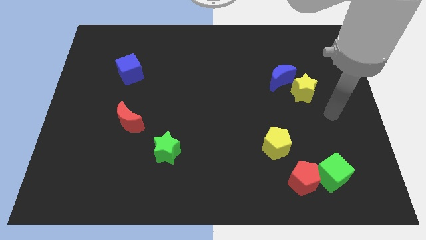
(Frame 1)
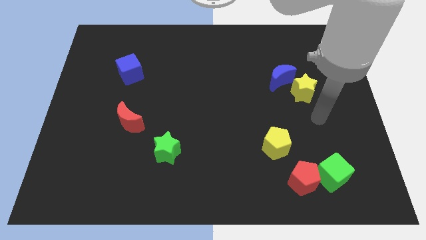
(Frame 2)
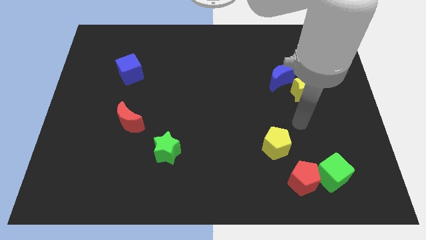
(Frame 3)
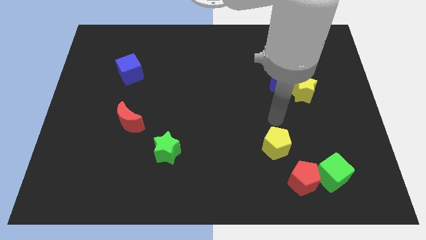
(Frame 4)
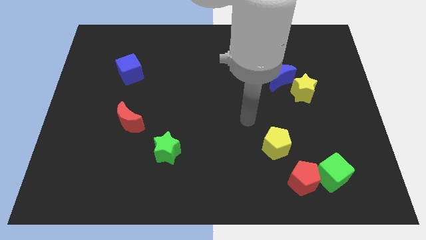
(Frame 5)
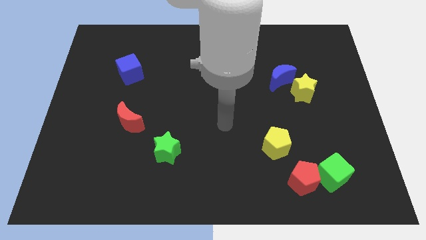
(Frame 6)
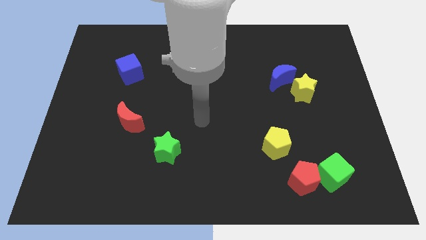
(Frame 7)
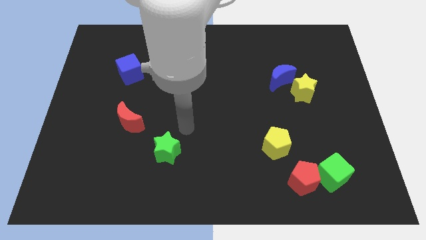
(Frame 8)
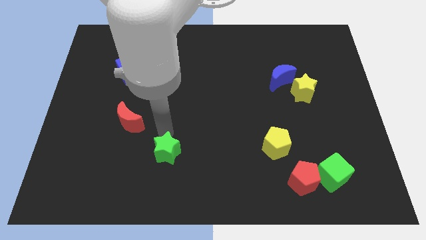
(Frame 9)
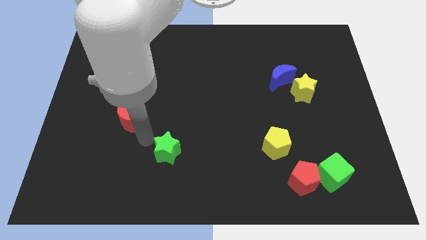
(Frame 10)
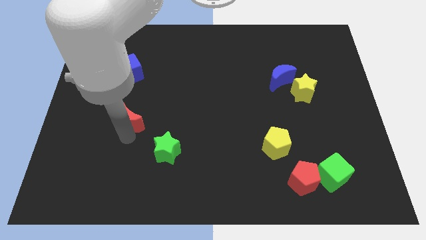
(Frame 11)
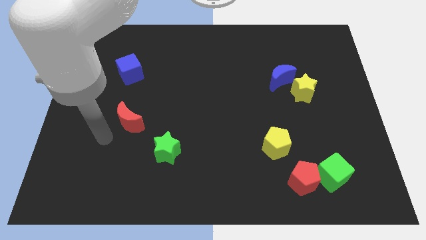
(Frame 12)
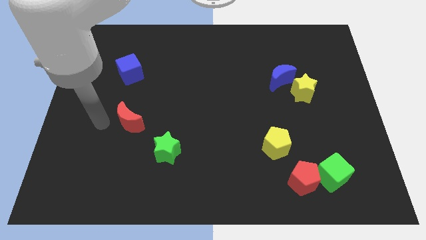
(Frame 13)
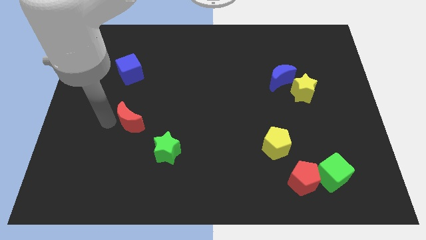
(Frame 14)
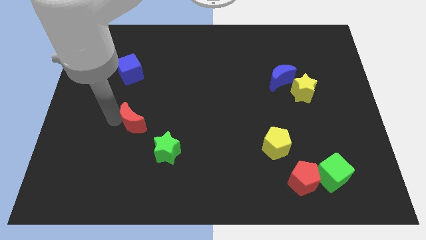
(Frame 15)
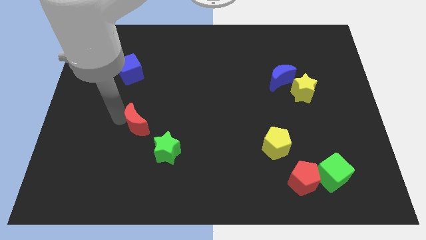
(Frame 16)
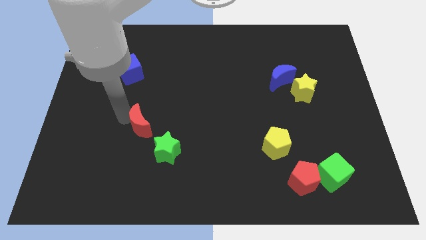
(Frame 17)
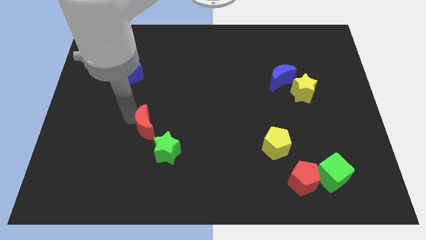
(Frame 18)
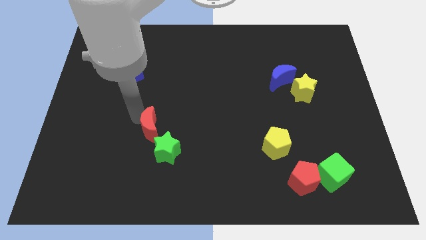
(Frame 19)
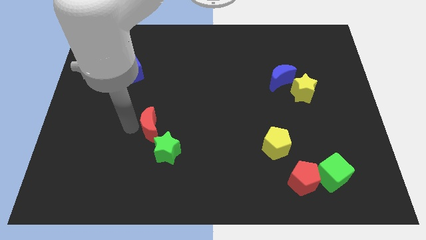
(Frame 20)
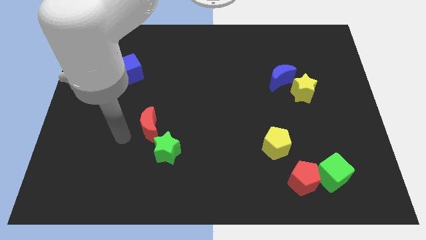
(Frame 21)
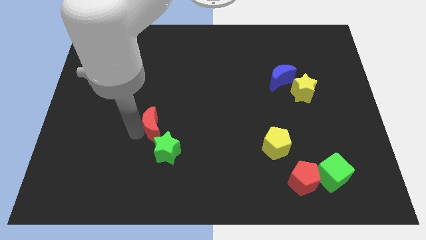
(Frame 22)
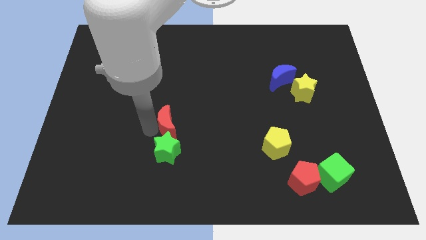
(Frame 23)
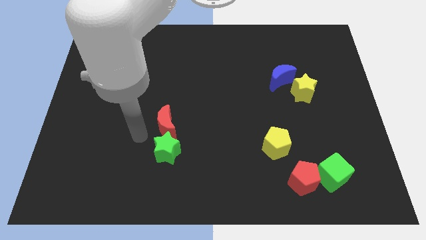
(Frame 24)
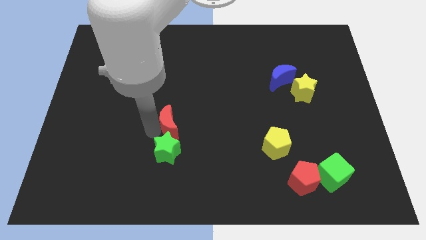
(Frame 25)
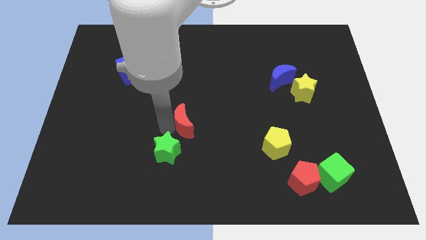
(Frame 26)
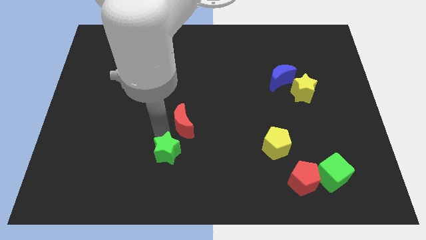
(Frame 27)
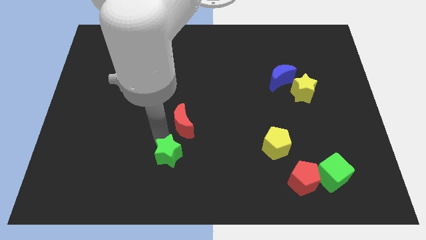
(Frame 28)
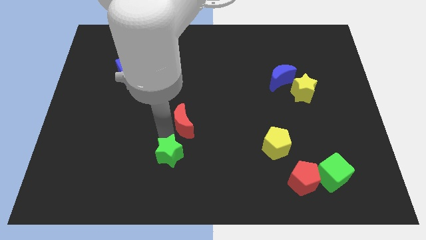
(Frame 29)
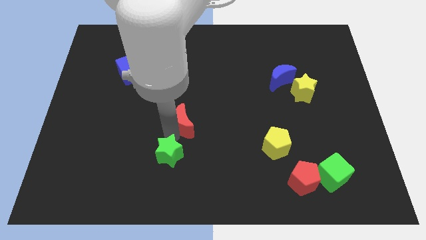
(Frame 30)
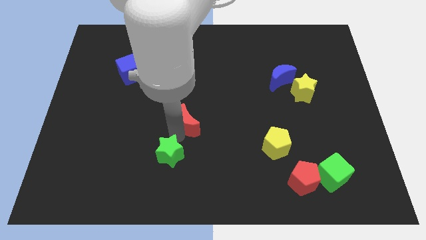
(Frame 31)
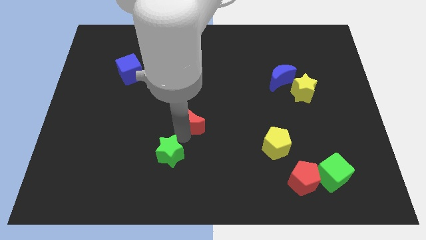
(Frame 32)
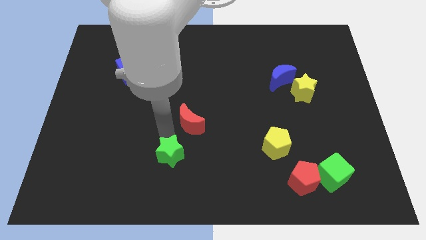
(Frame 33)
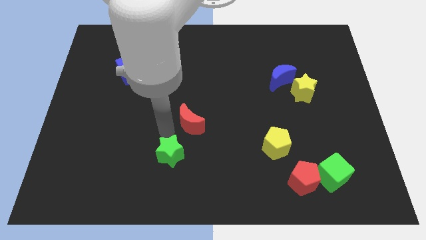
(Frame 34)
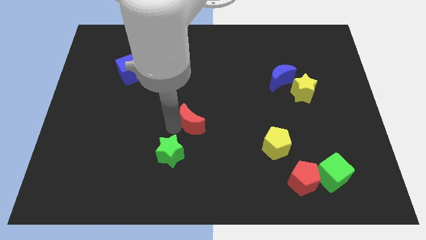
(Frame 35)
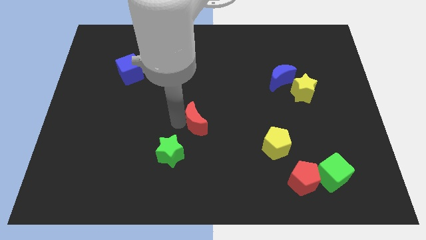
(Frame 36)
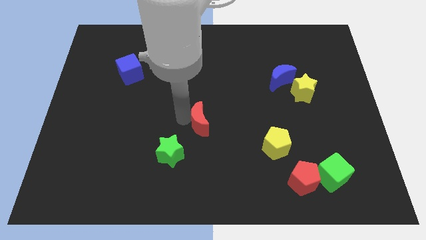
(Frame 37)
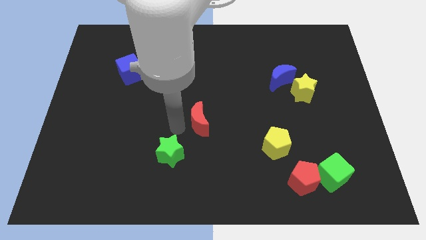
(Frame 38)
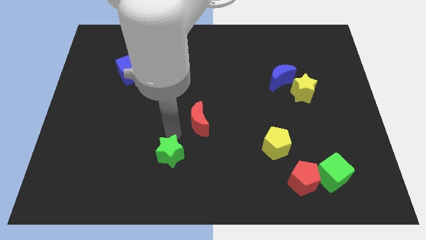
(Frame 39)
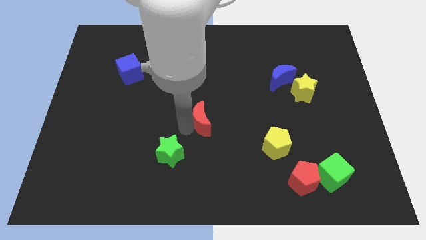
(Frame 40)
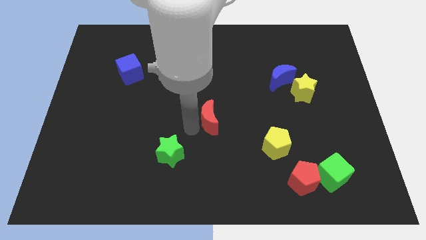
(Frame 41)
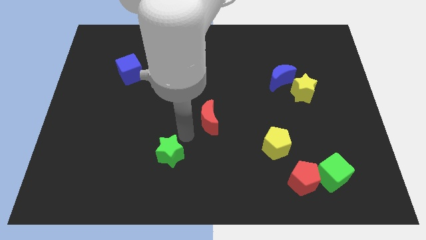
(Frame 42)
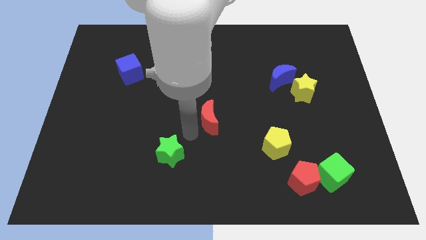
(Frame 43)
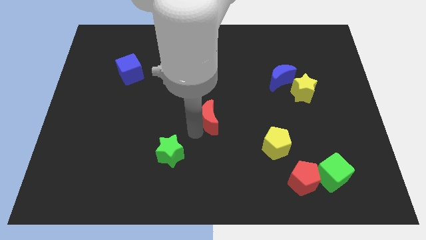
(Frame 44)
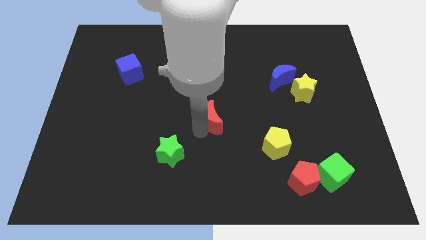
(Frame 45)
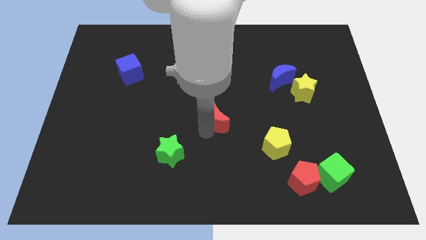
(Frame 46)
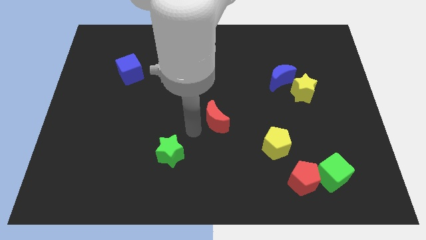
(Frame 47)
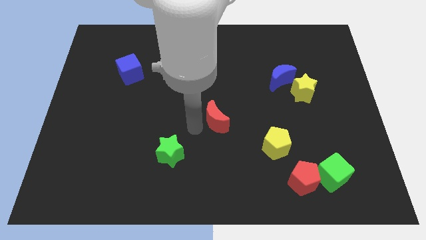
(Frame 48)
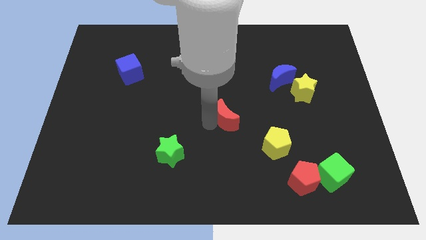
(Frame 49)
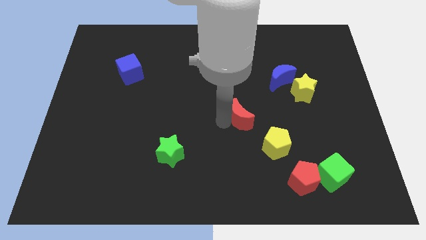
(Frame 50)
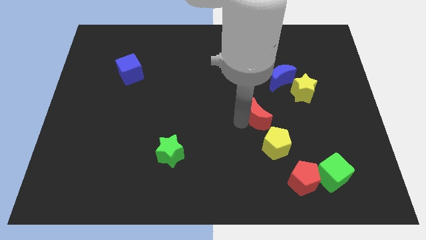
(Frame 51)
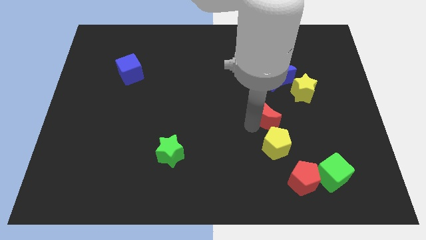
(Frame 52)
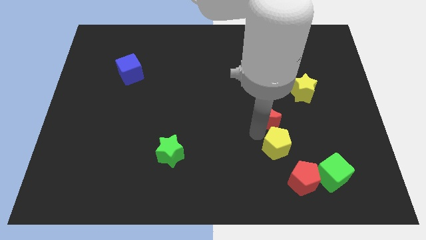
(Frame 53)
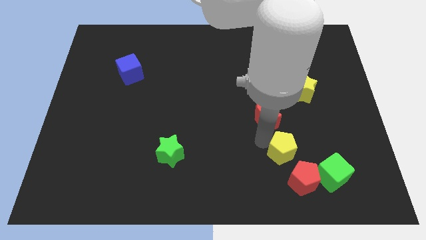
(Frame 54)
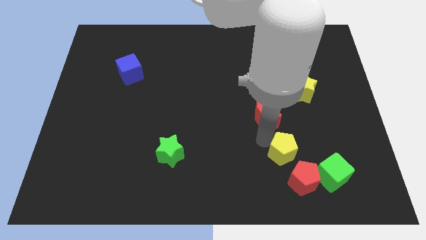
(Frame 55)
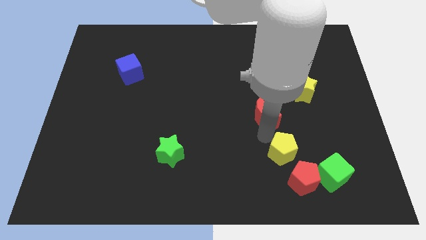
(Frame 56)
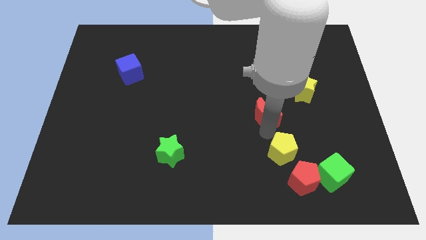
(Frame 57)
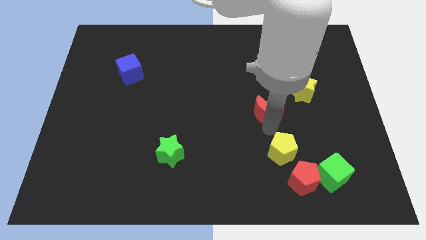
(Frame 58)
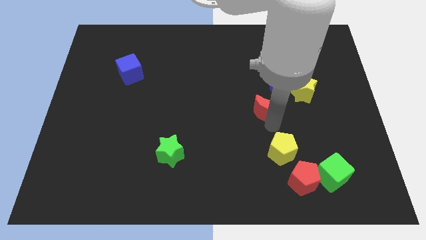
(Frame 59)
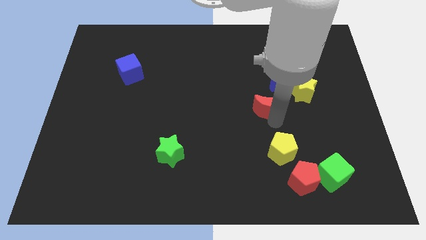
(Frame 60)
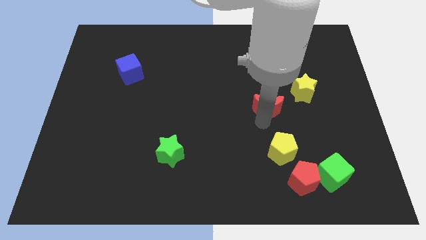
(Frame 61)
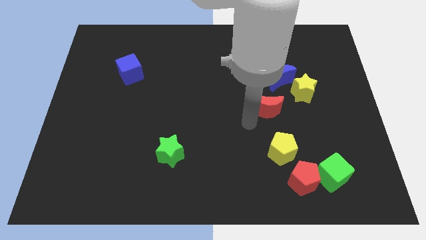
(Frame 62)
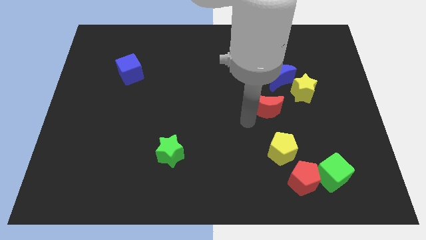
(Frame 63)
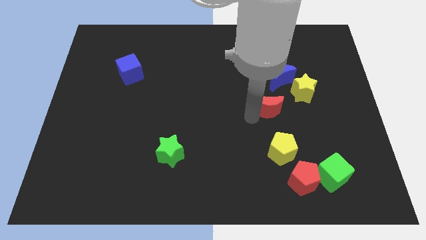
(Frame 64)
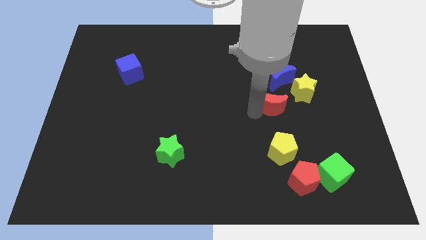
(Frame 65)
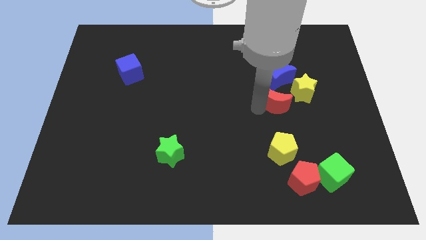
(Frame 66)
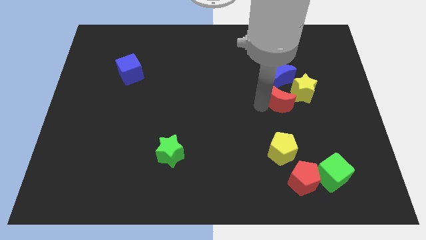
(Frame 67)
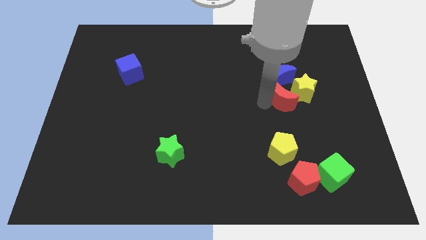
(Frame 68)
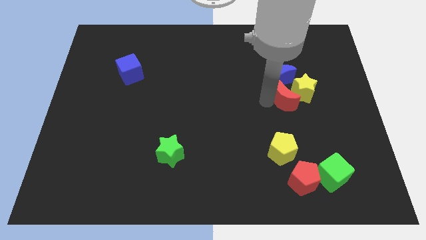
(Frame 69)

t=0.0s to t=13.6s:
push the red moon towards the yellow star
